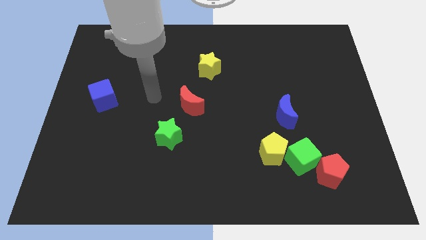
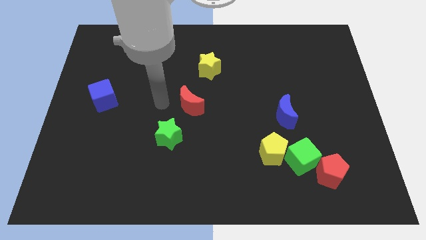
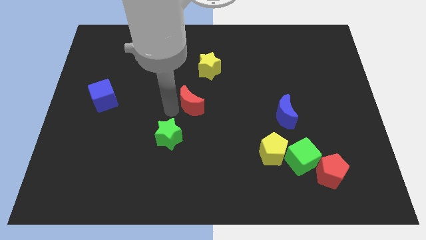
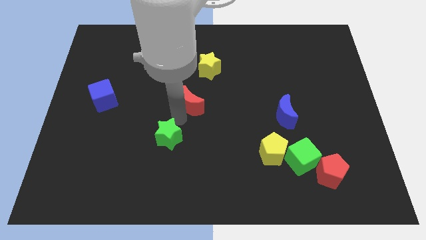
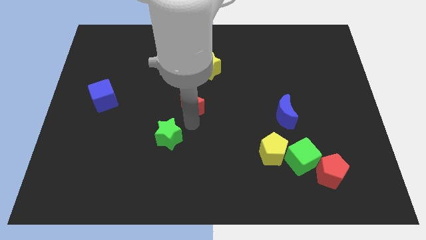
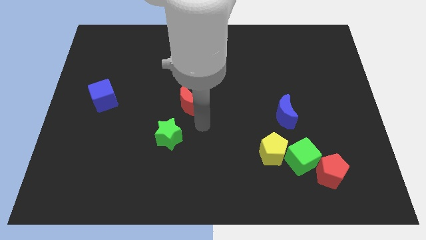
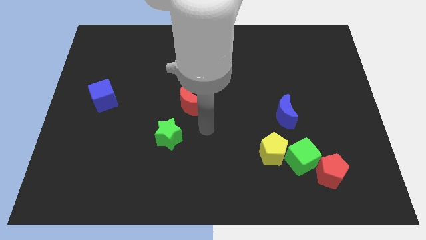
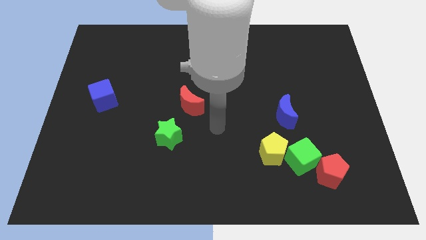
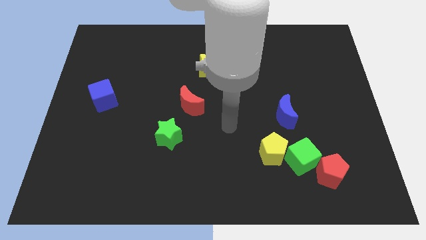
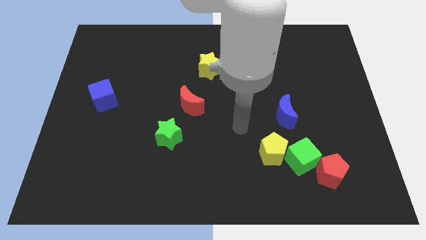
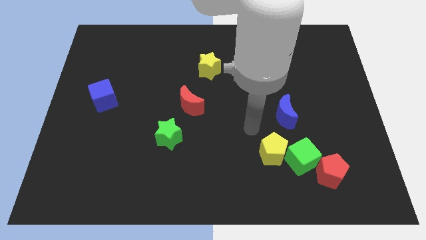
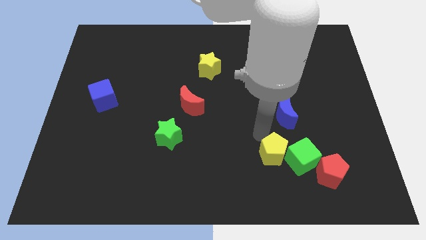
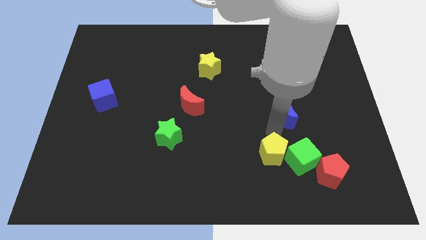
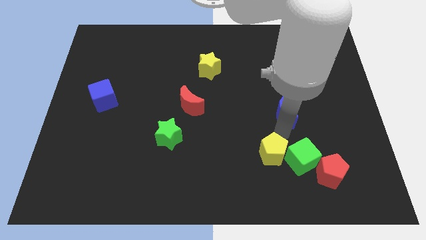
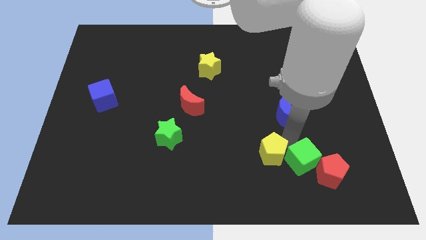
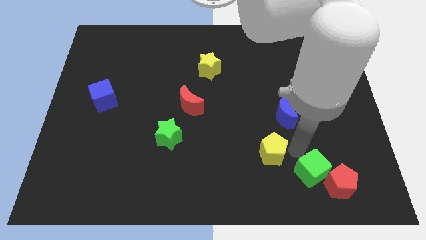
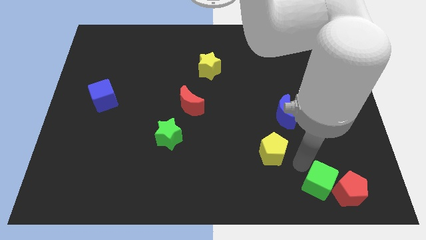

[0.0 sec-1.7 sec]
pull the yellow pentagon apart from the green cube

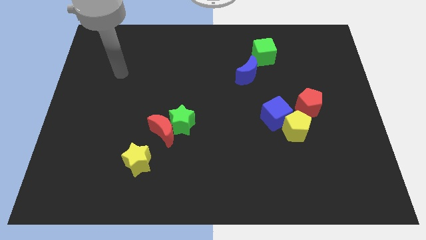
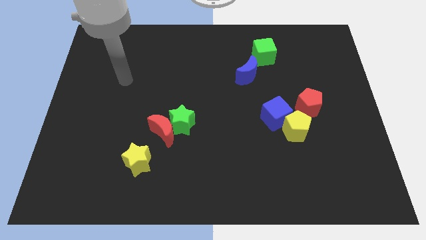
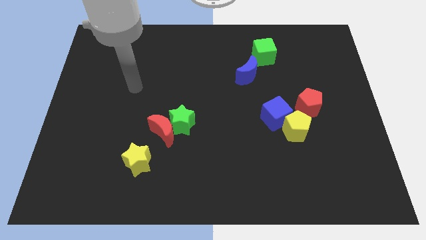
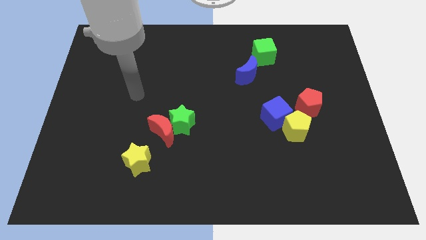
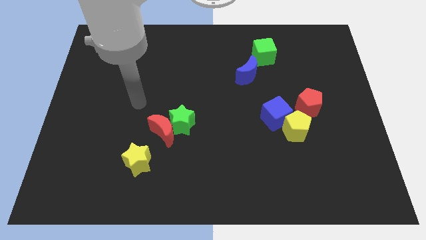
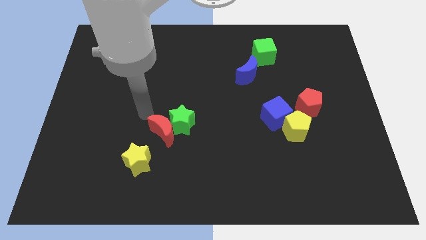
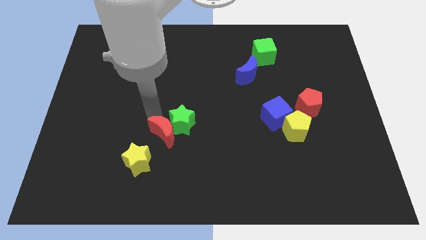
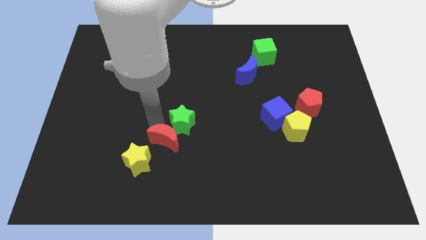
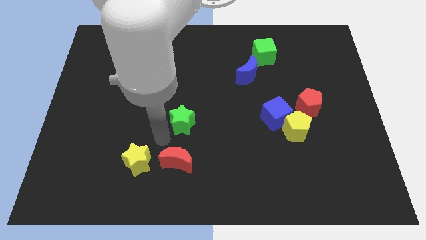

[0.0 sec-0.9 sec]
move the green star away from the red moon

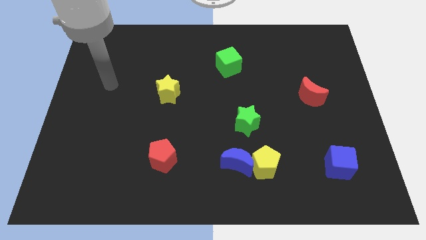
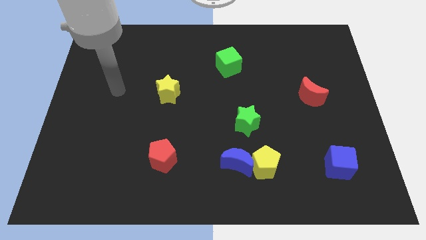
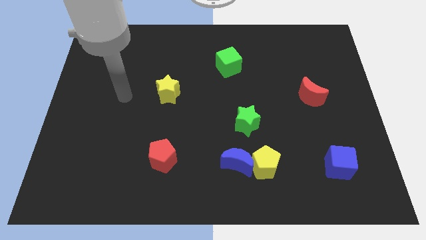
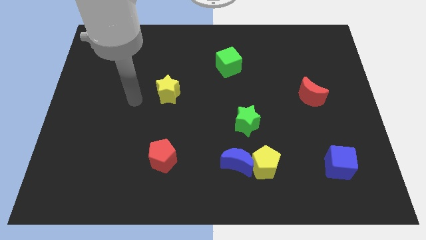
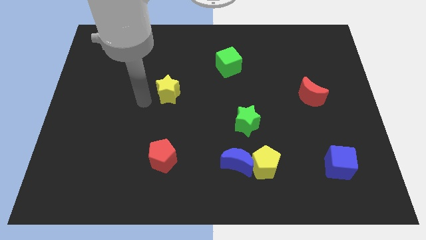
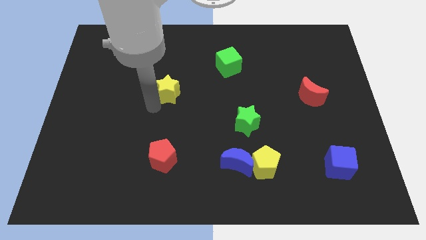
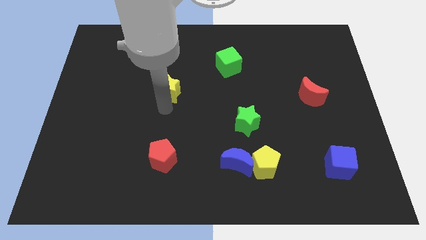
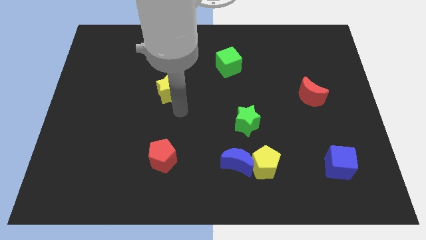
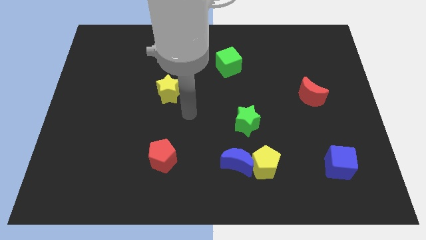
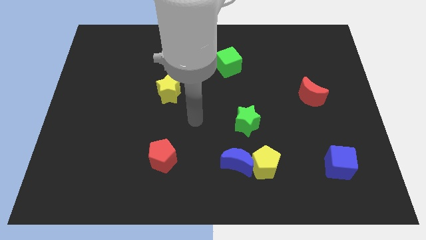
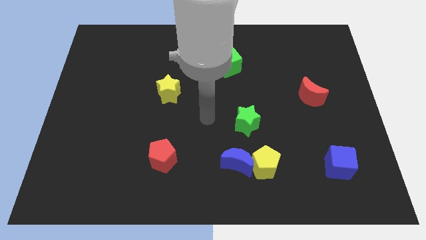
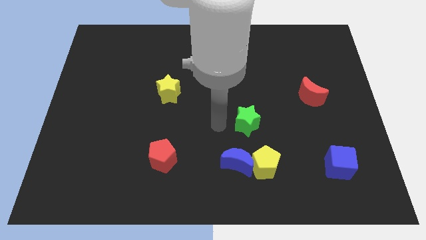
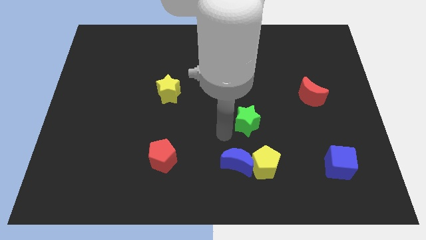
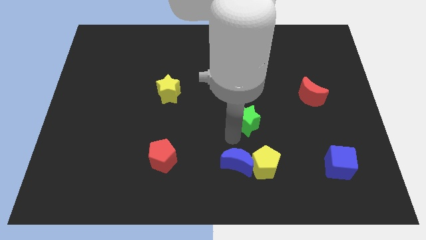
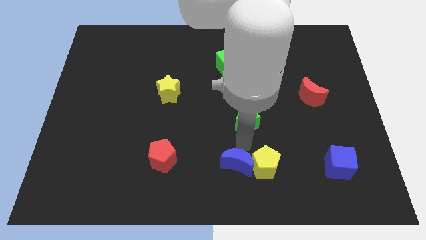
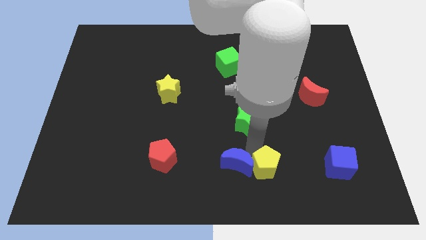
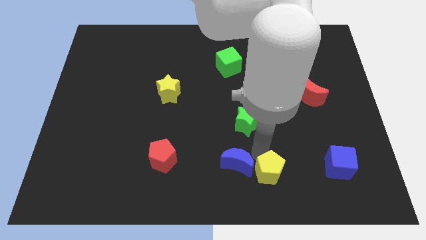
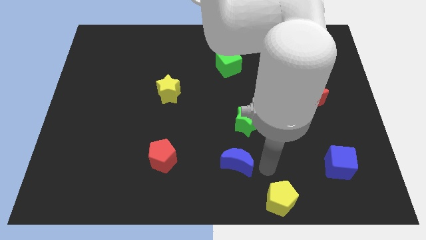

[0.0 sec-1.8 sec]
move the blue moon away from the yellow pentagon

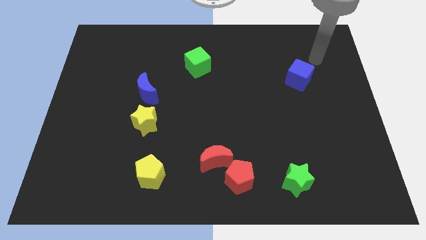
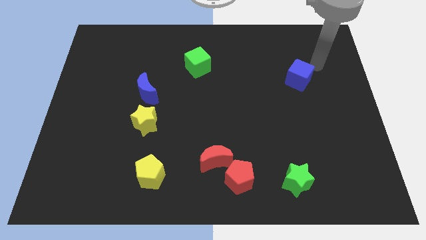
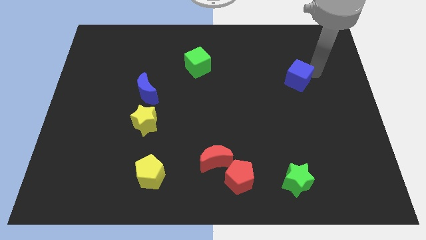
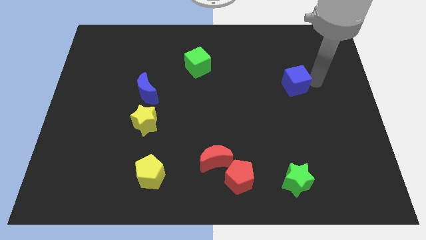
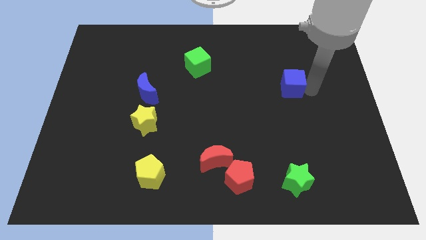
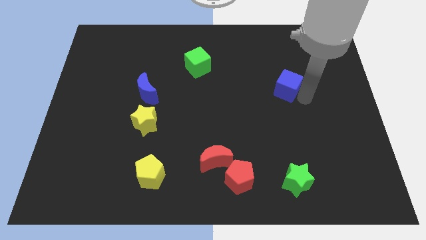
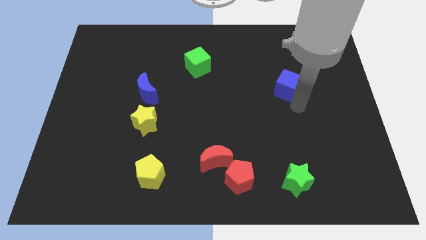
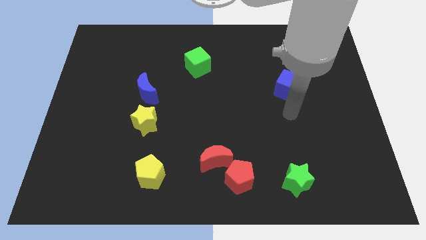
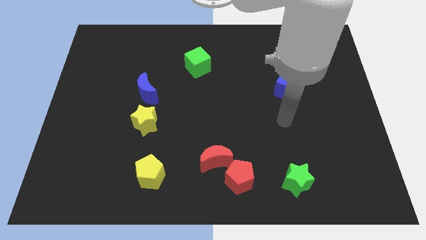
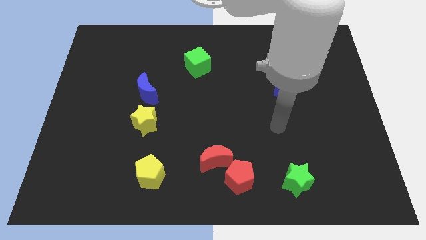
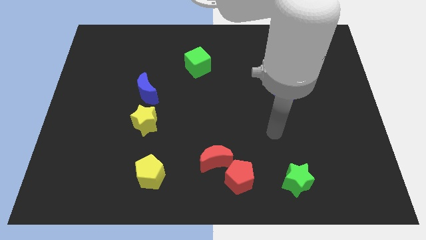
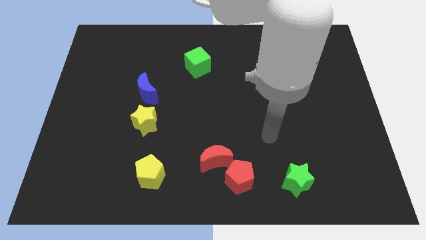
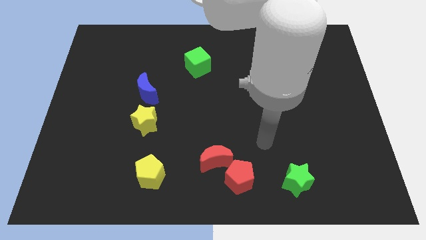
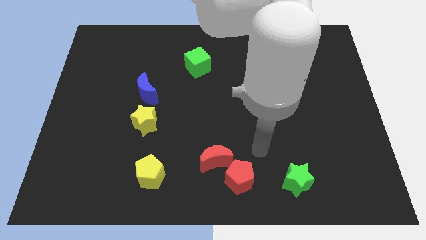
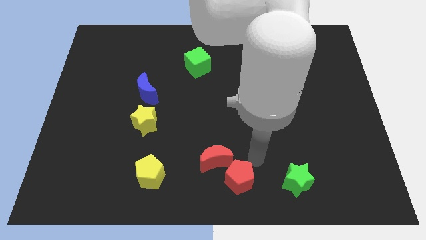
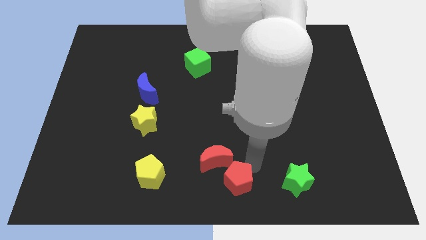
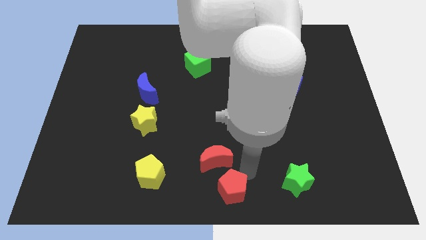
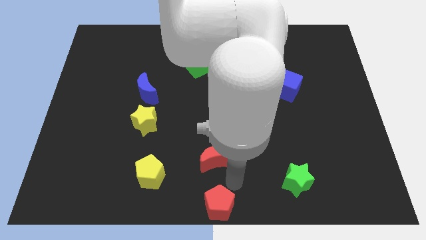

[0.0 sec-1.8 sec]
separate the red moon from the red pentagon

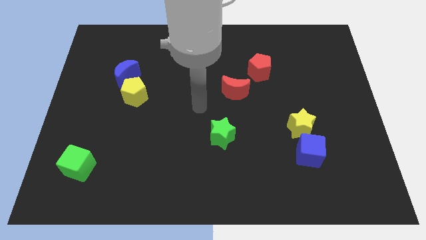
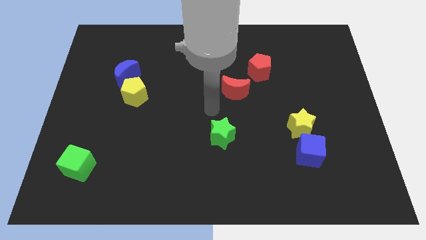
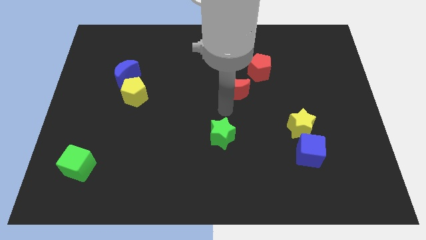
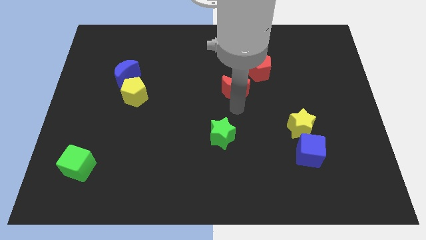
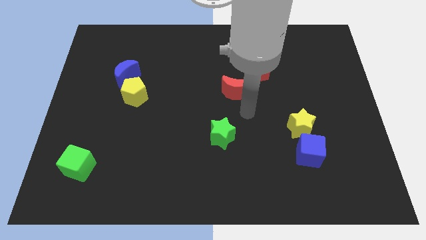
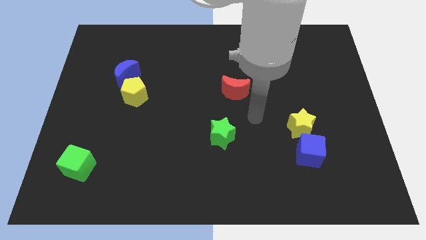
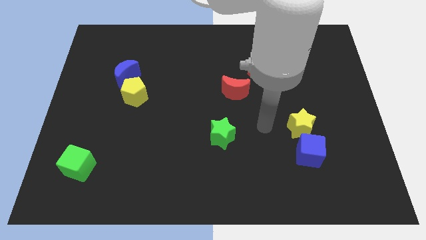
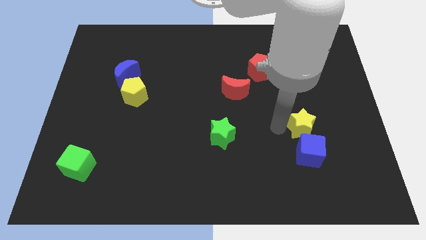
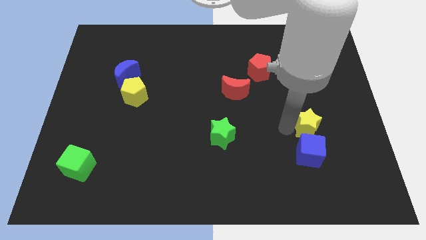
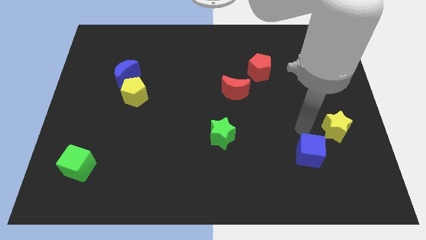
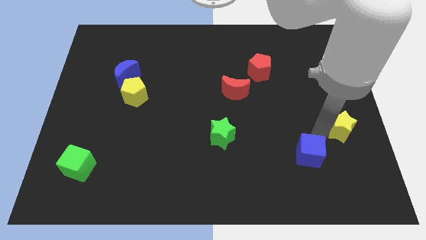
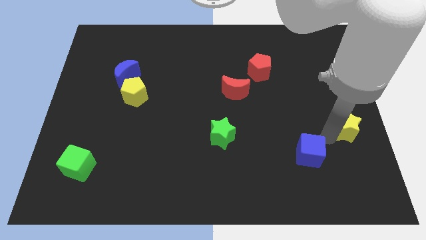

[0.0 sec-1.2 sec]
pull the blue cube apart from the yellow star

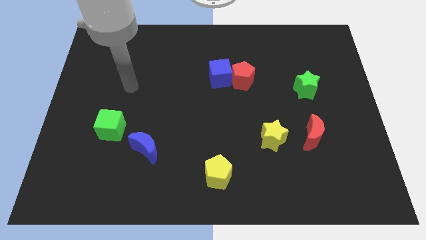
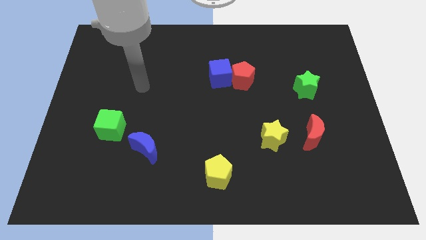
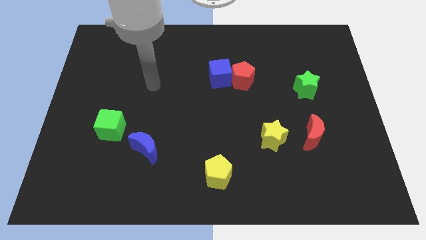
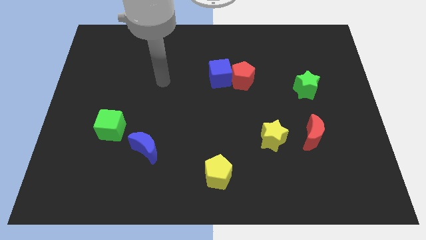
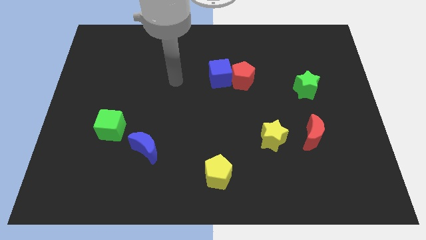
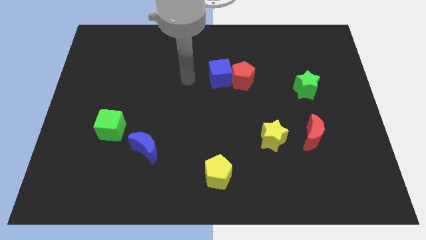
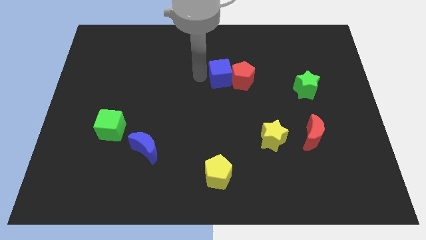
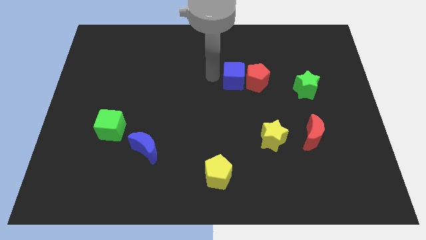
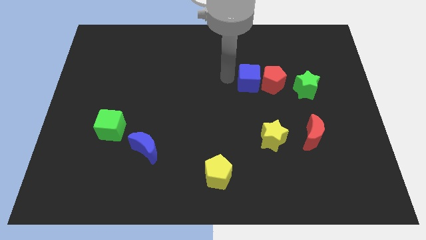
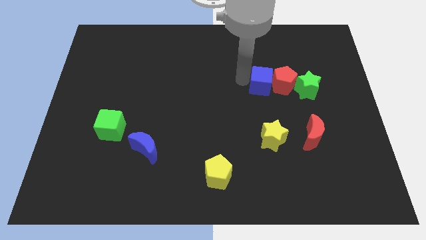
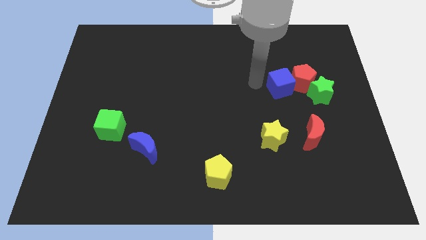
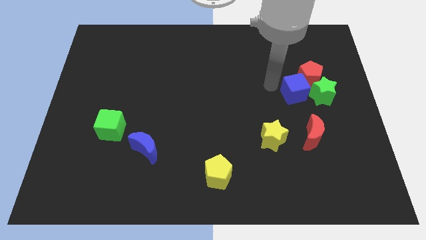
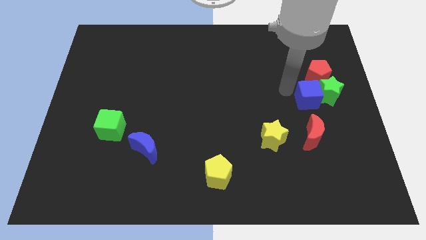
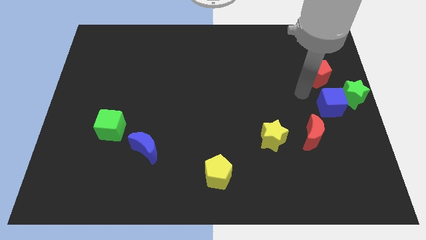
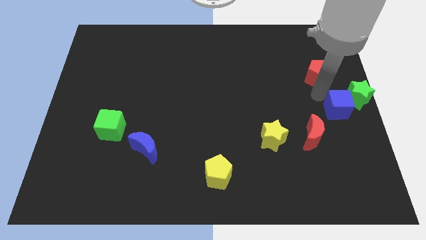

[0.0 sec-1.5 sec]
move the red pentagon away from the blue cube

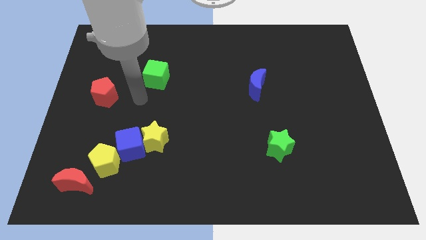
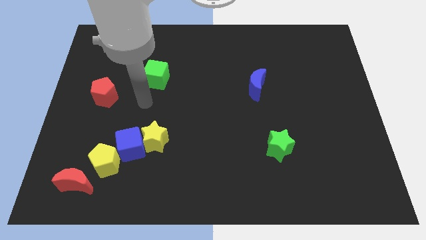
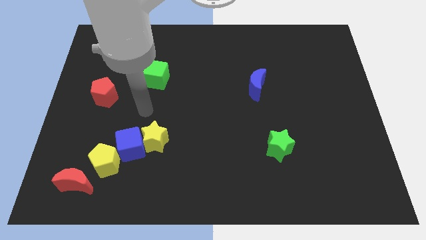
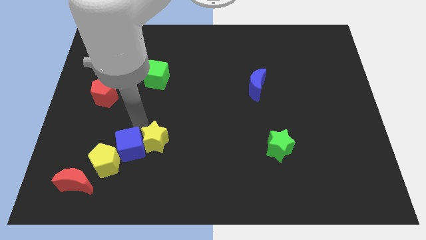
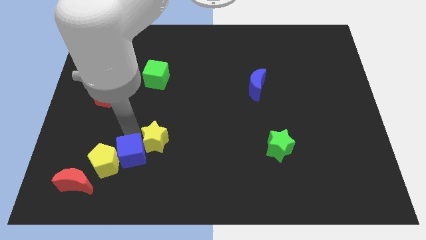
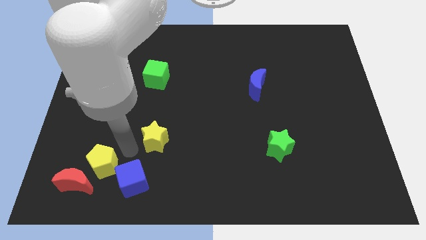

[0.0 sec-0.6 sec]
pull the yellow star apart from the blue cube
